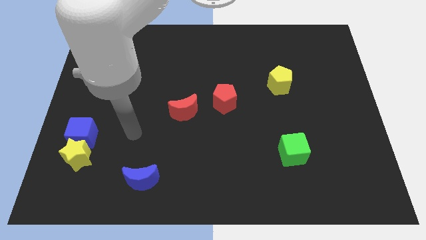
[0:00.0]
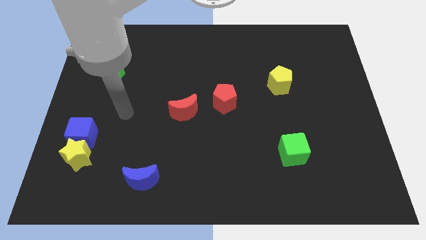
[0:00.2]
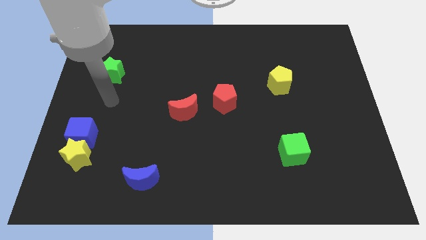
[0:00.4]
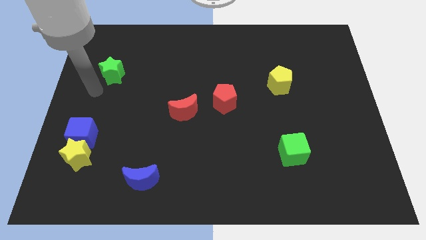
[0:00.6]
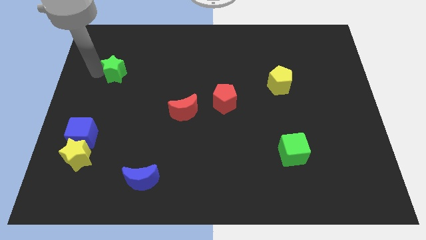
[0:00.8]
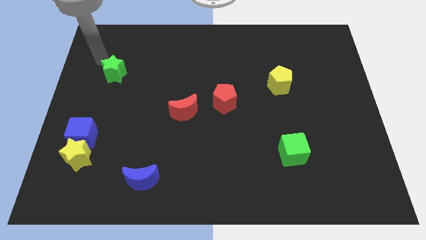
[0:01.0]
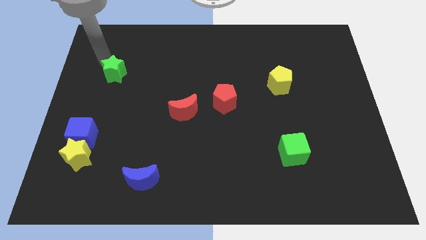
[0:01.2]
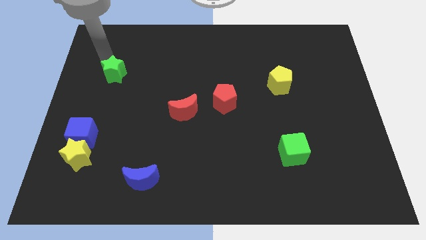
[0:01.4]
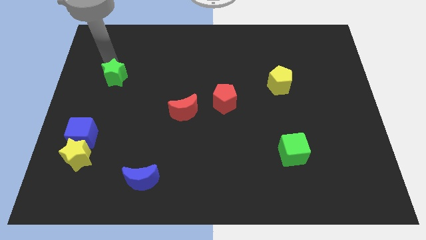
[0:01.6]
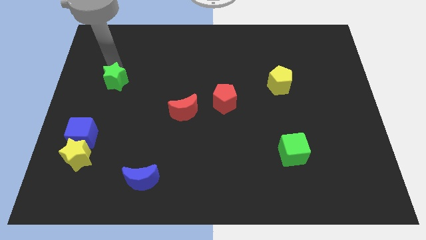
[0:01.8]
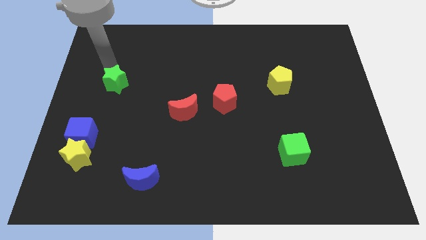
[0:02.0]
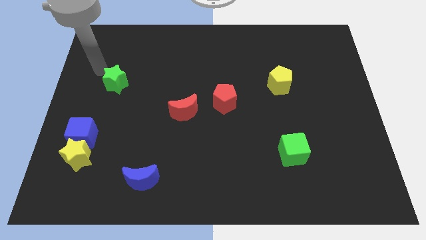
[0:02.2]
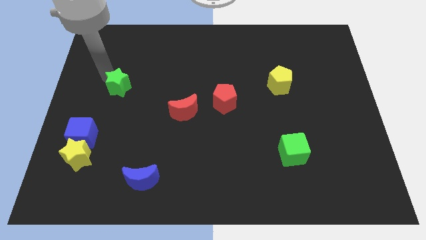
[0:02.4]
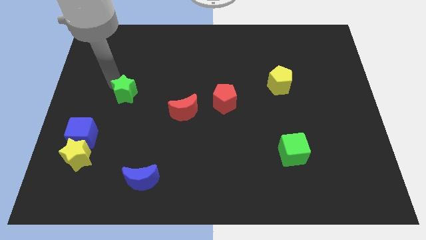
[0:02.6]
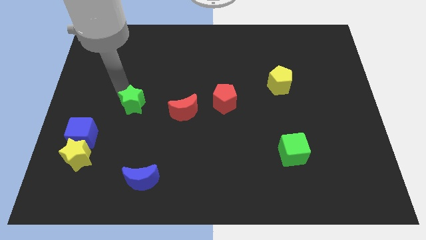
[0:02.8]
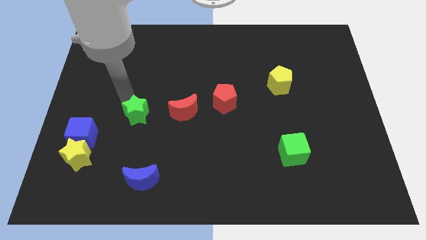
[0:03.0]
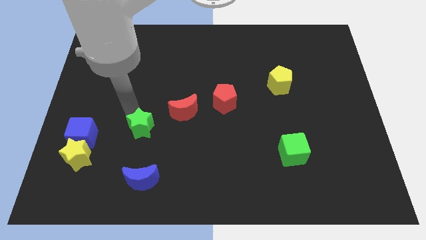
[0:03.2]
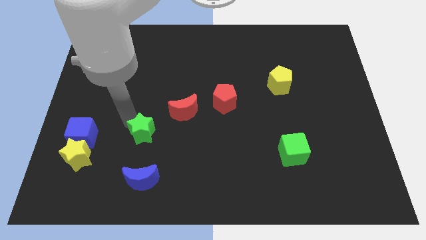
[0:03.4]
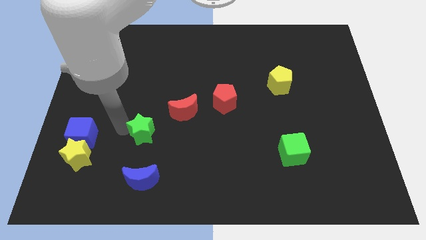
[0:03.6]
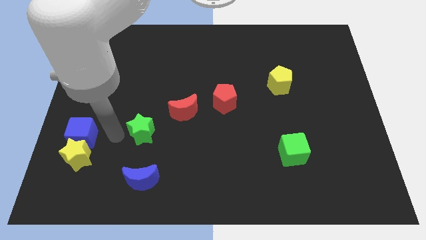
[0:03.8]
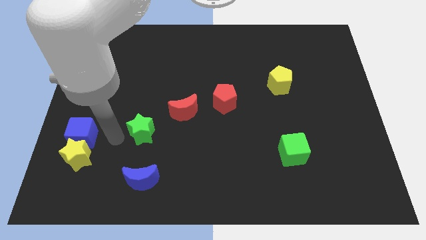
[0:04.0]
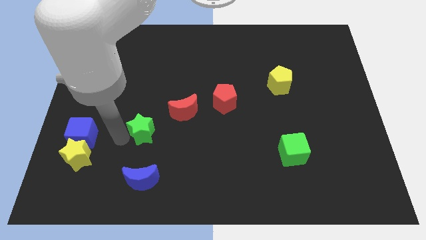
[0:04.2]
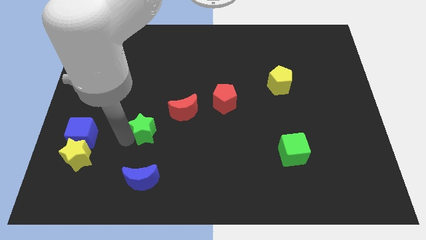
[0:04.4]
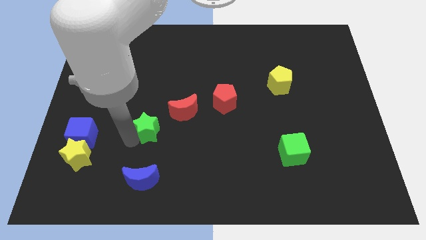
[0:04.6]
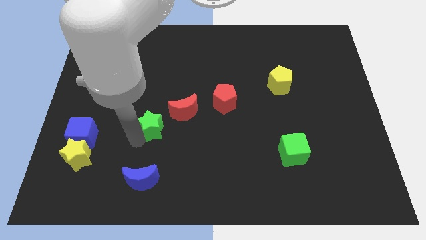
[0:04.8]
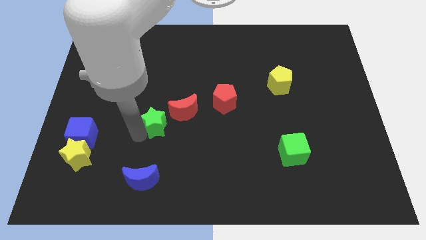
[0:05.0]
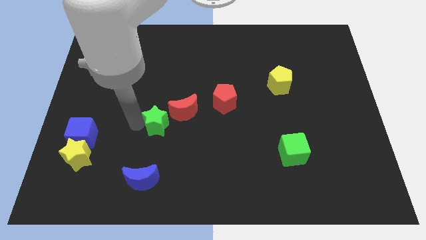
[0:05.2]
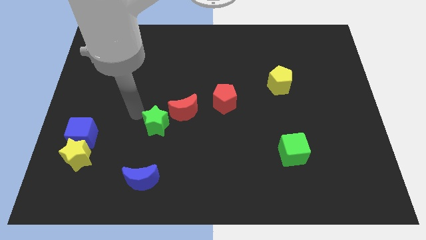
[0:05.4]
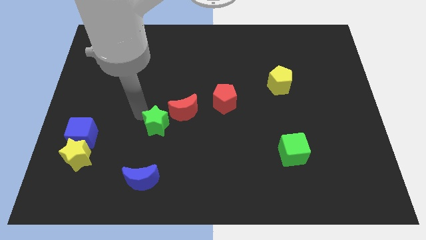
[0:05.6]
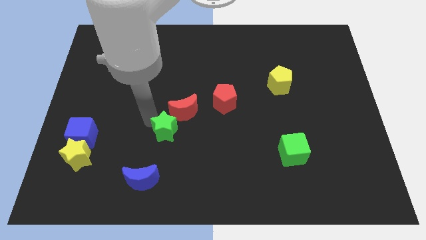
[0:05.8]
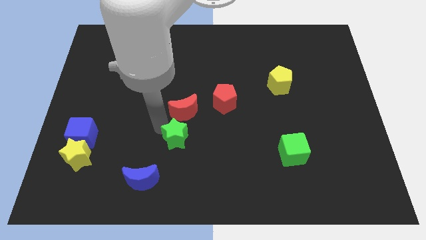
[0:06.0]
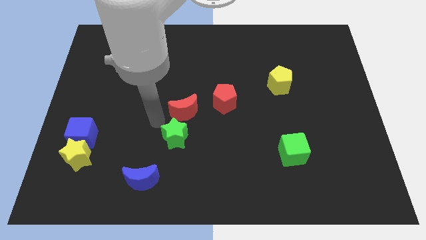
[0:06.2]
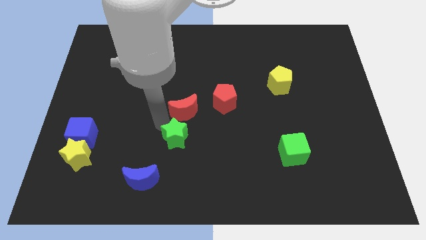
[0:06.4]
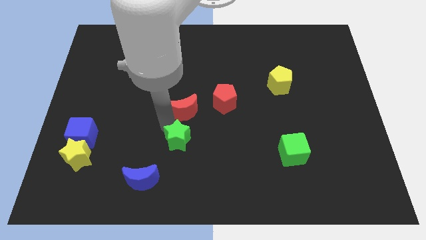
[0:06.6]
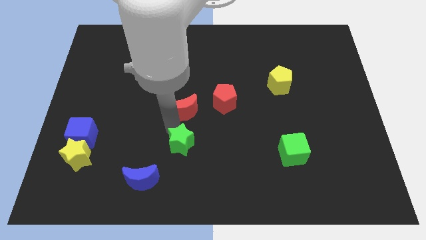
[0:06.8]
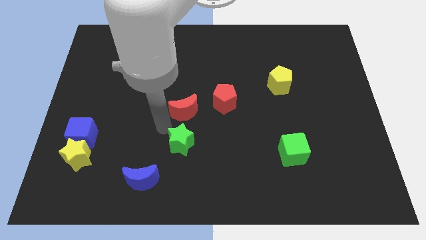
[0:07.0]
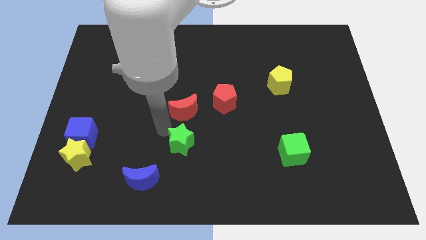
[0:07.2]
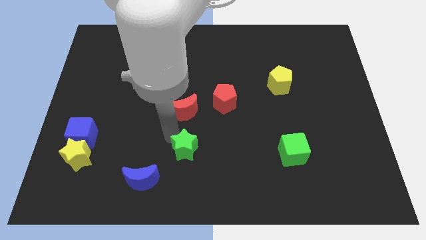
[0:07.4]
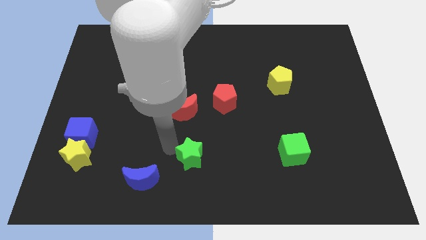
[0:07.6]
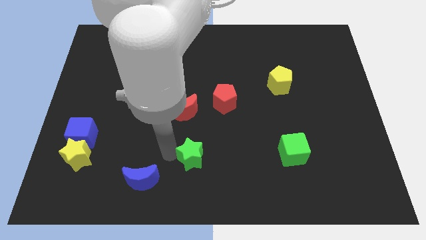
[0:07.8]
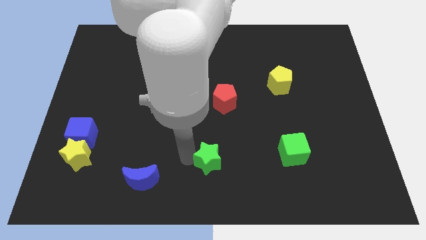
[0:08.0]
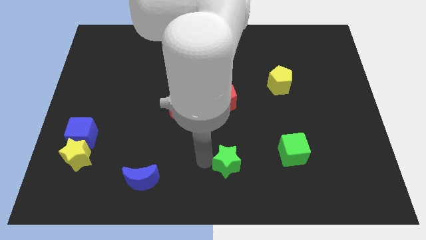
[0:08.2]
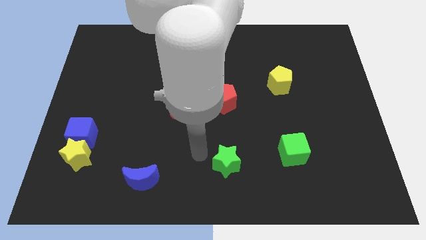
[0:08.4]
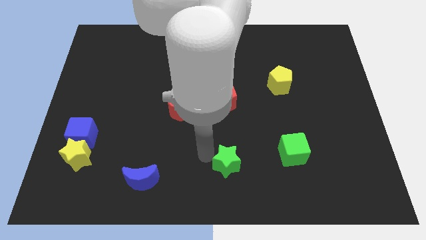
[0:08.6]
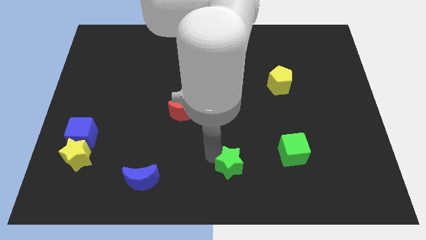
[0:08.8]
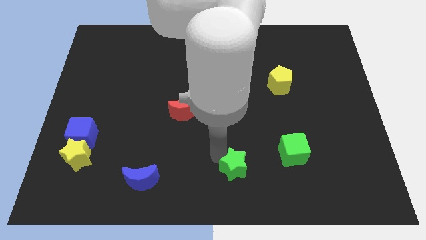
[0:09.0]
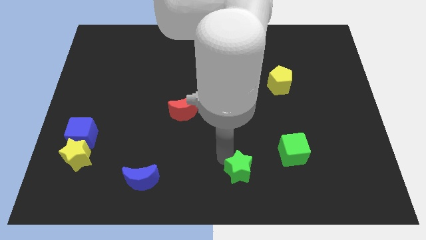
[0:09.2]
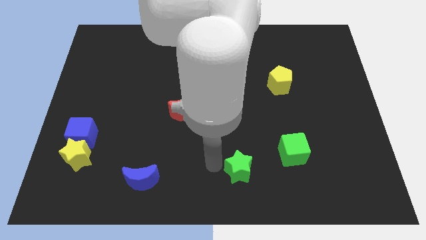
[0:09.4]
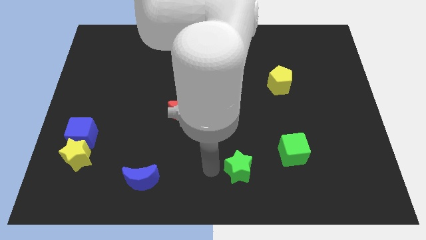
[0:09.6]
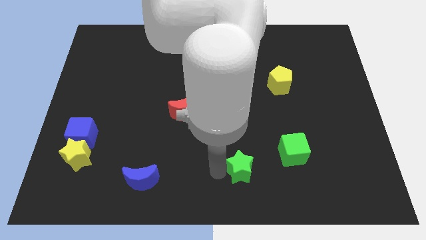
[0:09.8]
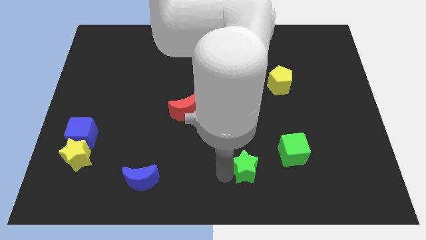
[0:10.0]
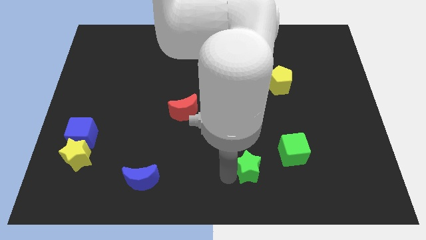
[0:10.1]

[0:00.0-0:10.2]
slide the green star to the bottom left side of the green cube

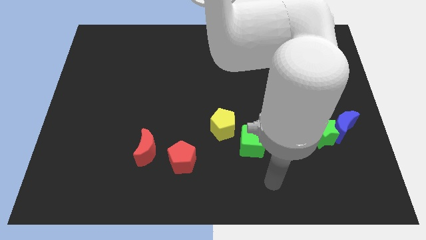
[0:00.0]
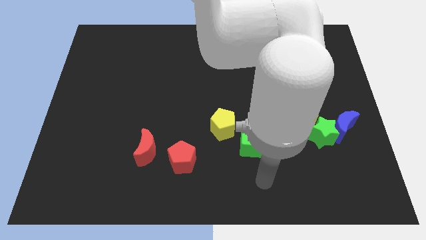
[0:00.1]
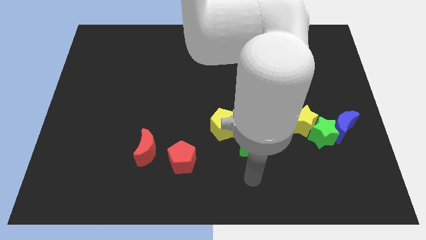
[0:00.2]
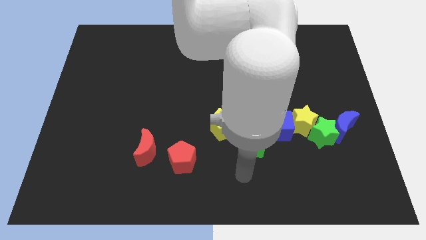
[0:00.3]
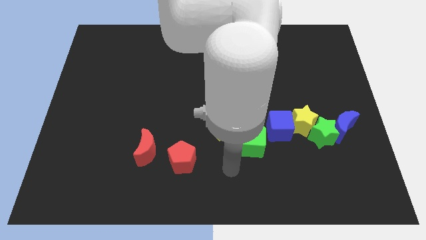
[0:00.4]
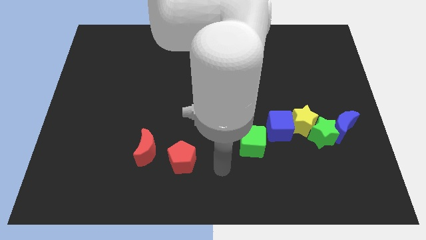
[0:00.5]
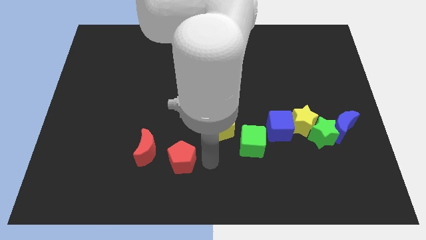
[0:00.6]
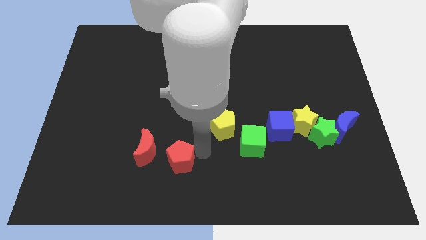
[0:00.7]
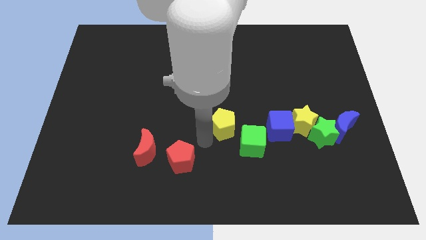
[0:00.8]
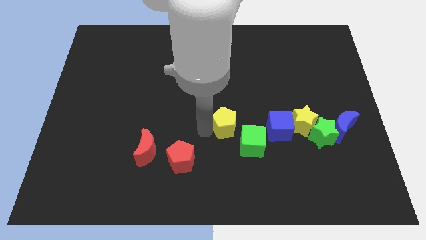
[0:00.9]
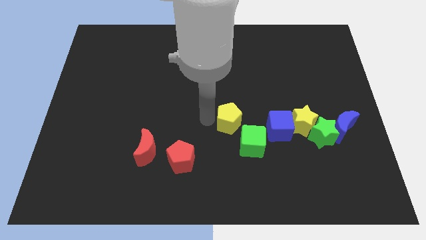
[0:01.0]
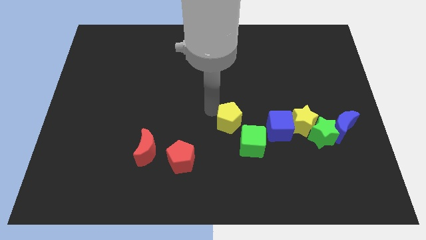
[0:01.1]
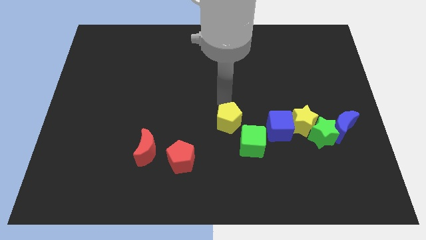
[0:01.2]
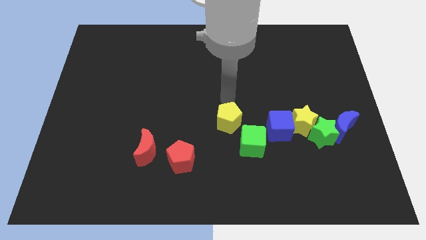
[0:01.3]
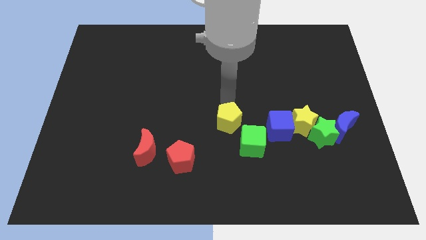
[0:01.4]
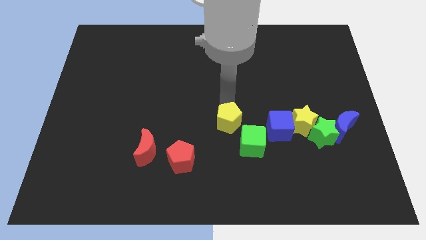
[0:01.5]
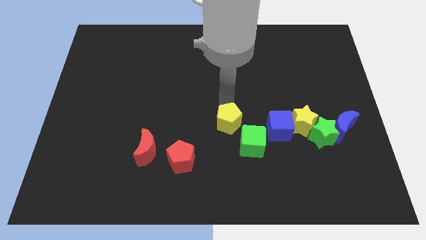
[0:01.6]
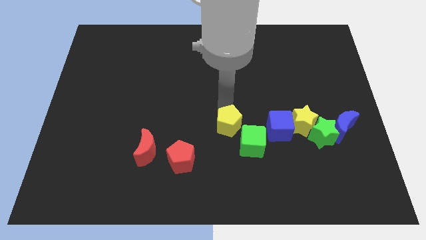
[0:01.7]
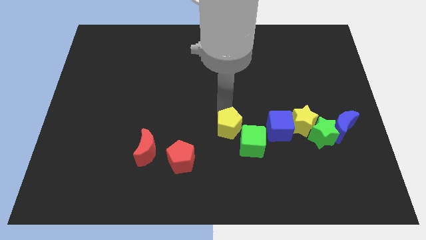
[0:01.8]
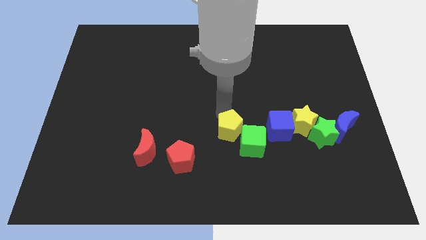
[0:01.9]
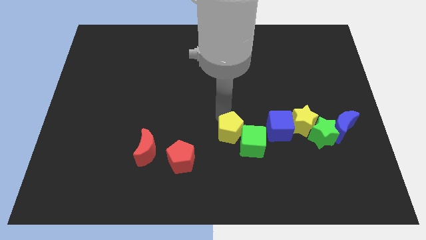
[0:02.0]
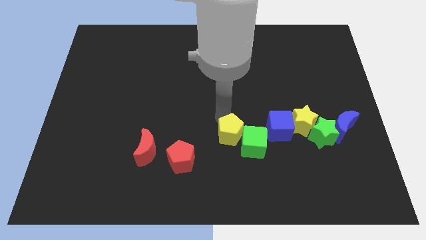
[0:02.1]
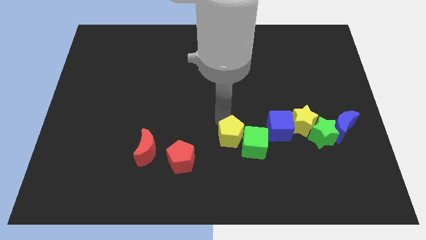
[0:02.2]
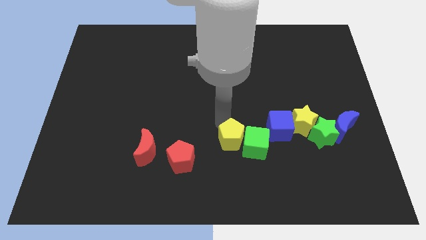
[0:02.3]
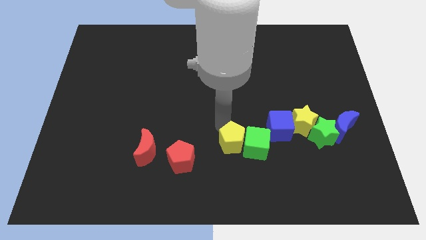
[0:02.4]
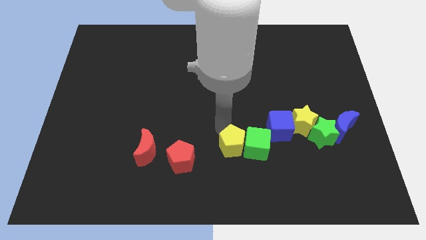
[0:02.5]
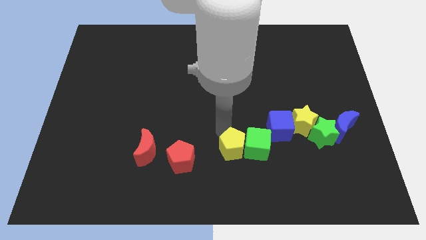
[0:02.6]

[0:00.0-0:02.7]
push the yellow pentagon to the bottom left of the blue cube
